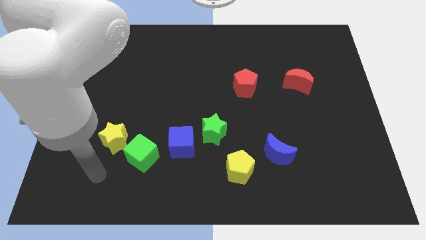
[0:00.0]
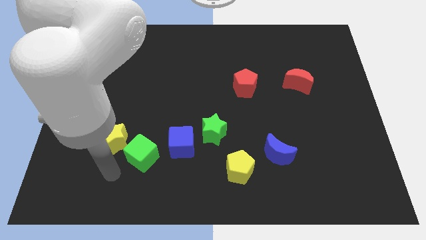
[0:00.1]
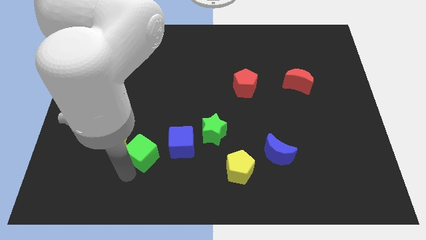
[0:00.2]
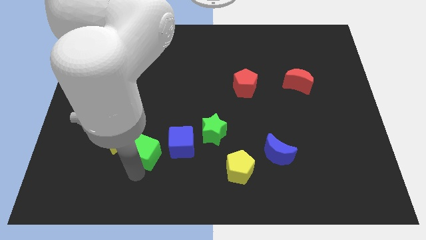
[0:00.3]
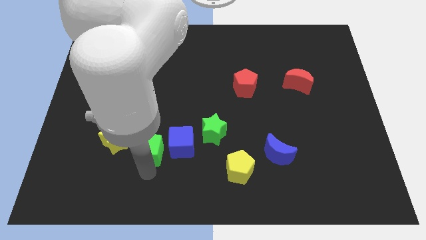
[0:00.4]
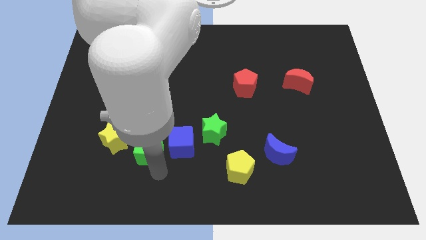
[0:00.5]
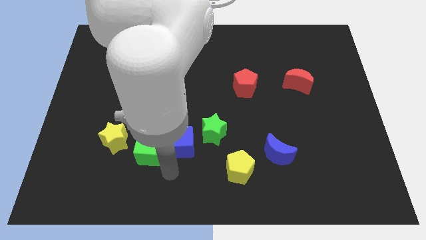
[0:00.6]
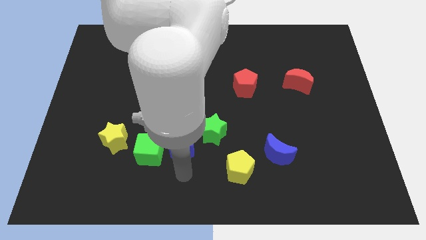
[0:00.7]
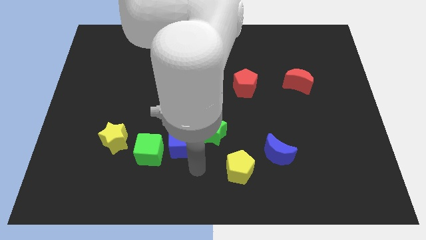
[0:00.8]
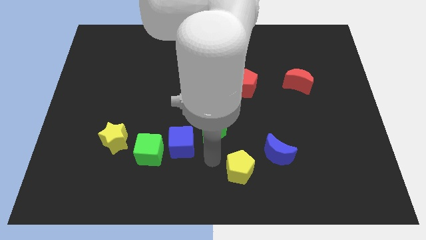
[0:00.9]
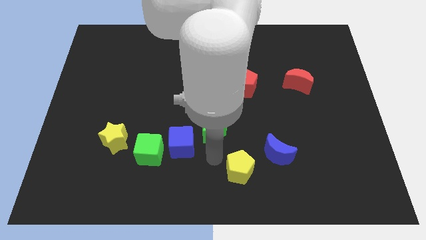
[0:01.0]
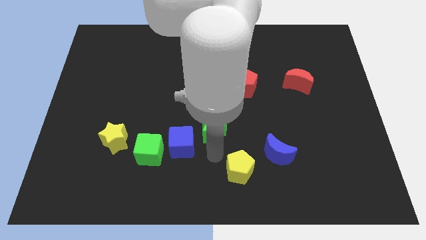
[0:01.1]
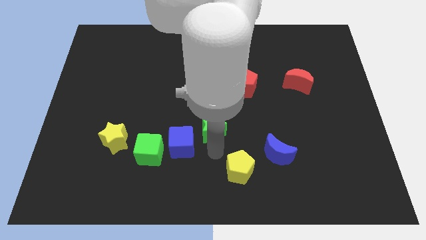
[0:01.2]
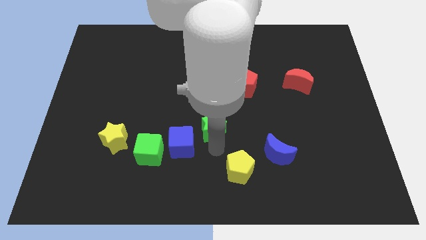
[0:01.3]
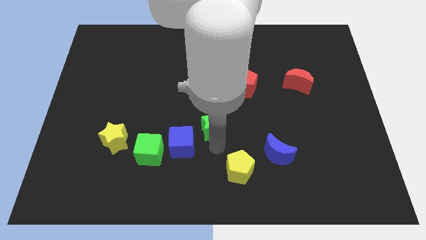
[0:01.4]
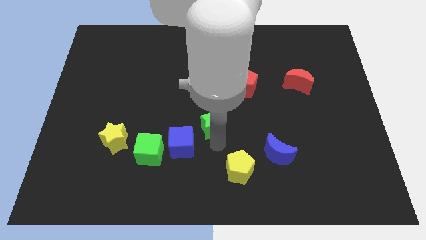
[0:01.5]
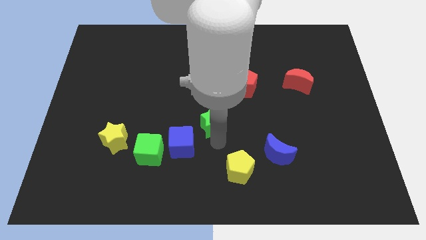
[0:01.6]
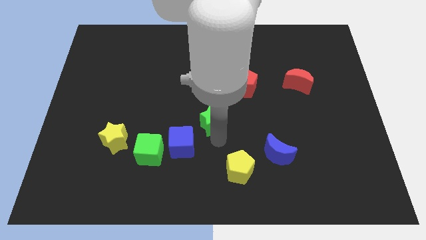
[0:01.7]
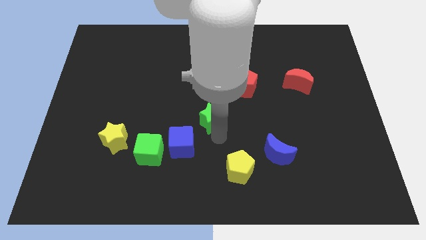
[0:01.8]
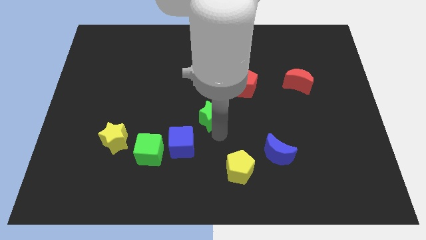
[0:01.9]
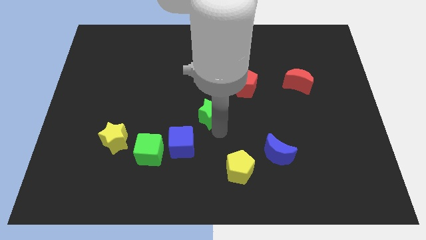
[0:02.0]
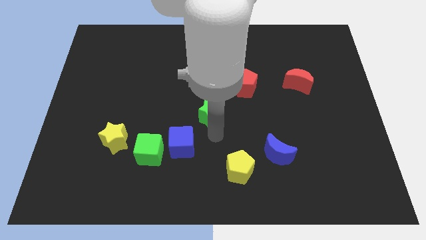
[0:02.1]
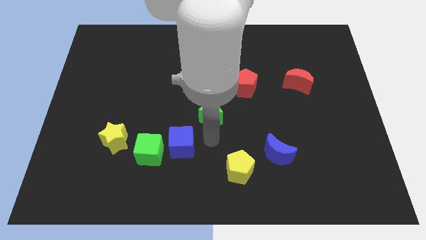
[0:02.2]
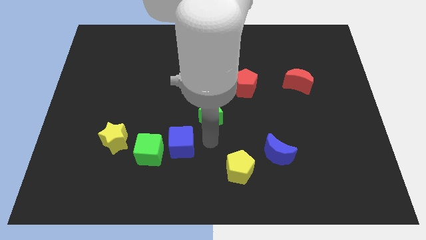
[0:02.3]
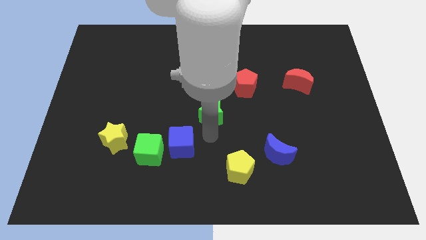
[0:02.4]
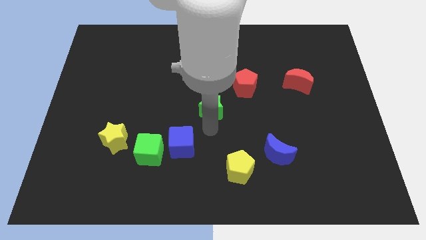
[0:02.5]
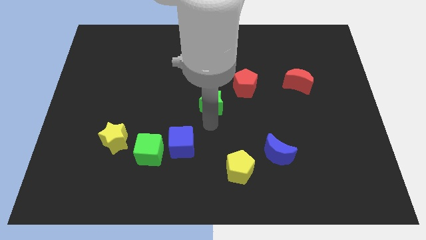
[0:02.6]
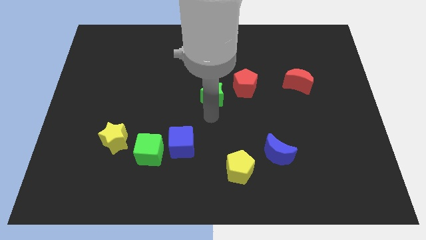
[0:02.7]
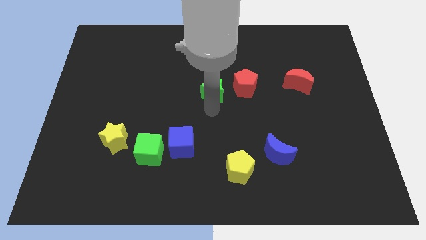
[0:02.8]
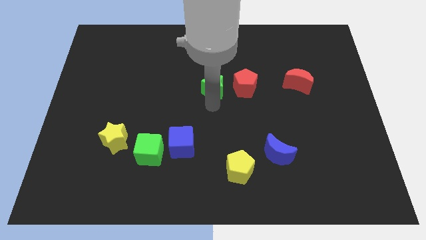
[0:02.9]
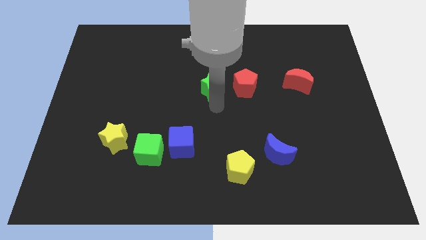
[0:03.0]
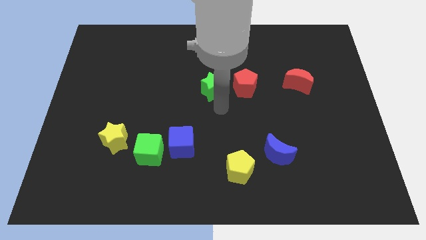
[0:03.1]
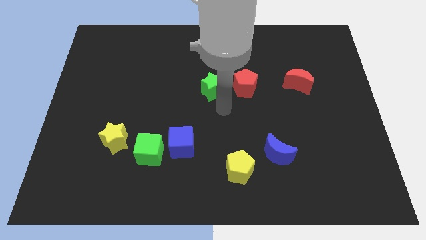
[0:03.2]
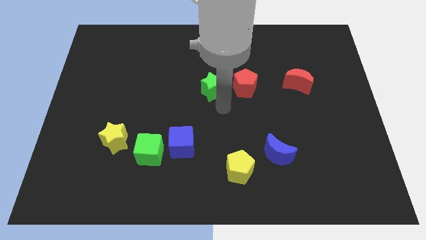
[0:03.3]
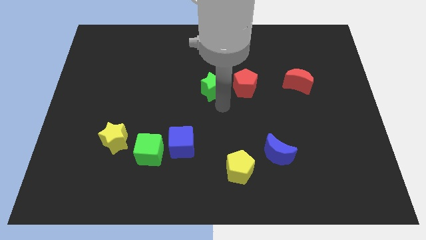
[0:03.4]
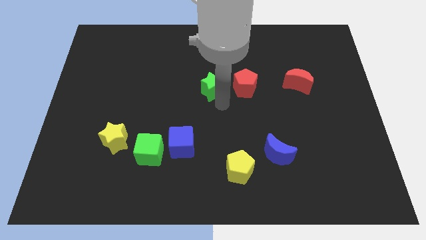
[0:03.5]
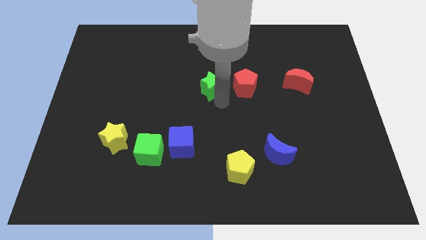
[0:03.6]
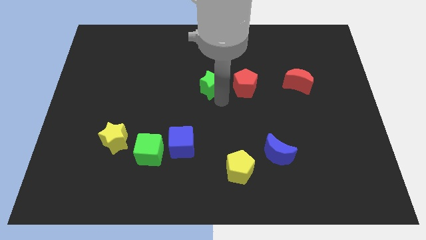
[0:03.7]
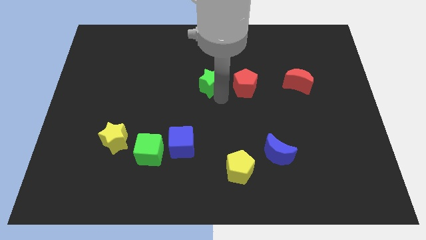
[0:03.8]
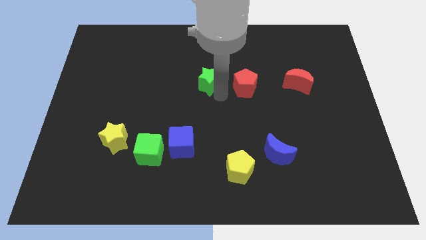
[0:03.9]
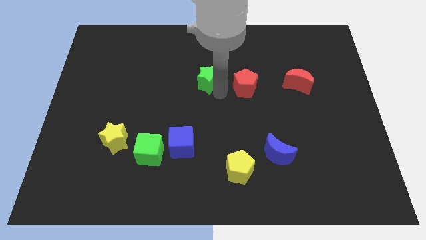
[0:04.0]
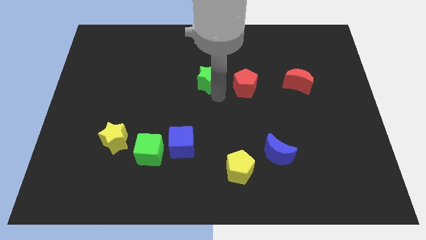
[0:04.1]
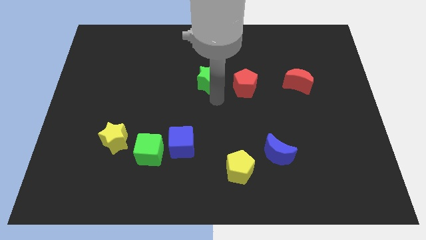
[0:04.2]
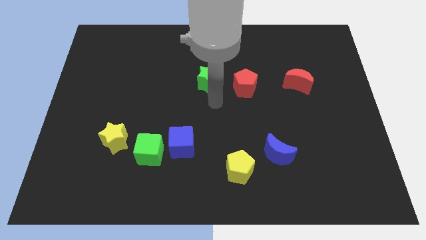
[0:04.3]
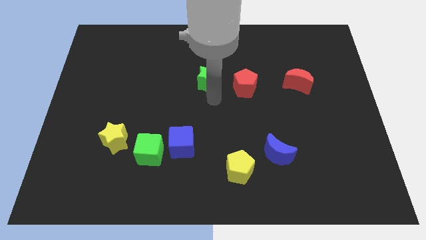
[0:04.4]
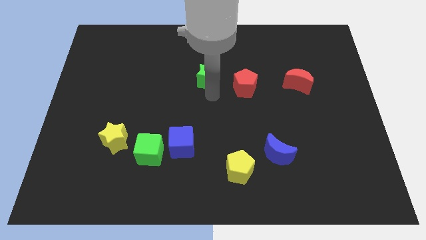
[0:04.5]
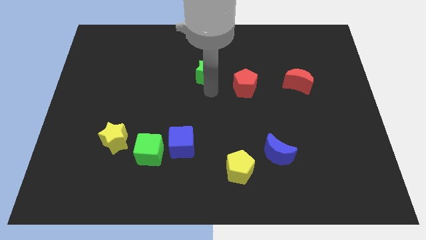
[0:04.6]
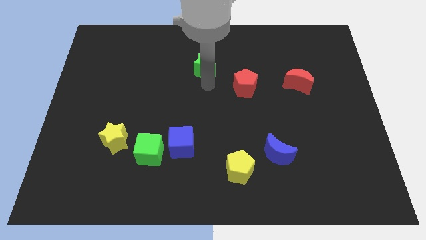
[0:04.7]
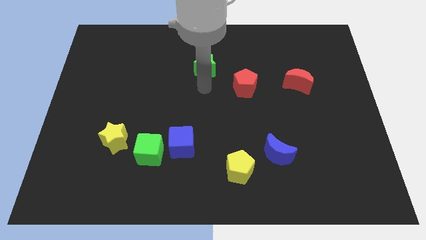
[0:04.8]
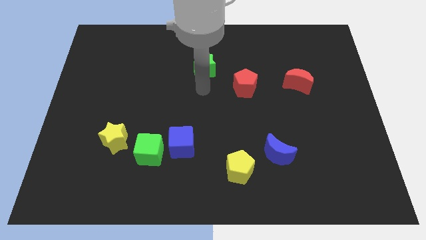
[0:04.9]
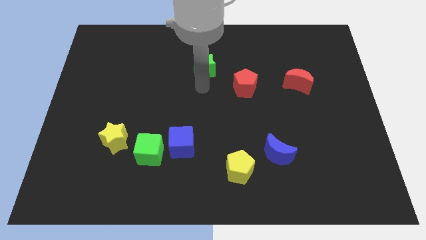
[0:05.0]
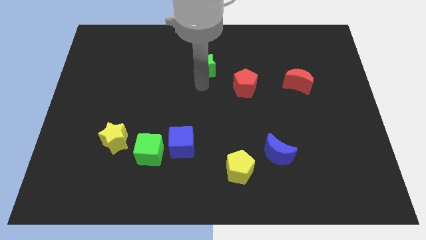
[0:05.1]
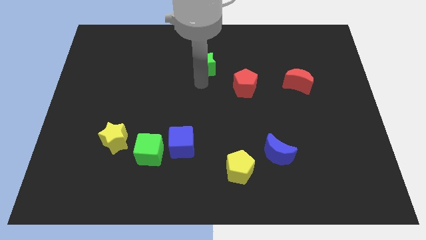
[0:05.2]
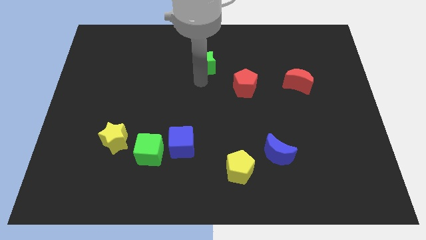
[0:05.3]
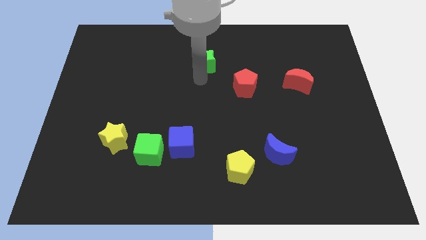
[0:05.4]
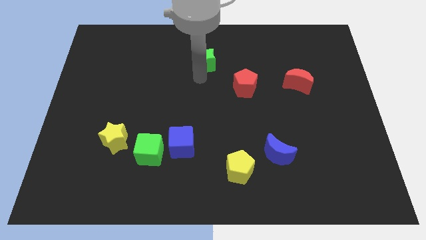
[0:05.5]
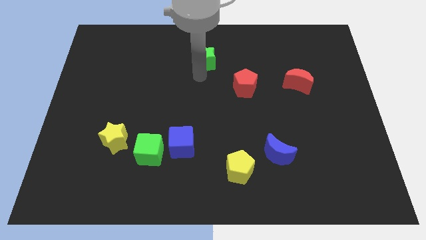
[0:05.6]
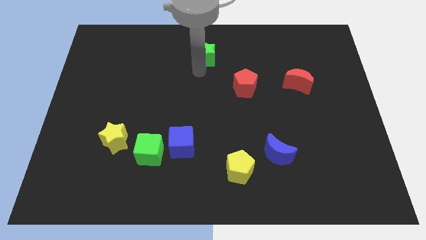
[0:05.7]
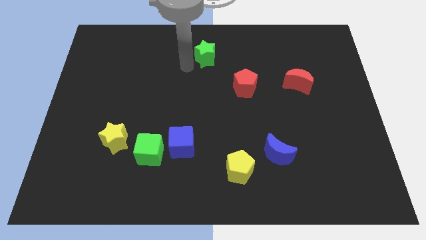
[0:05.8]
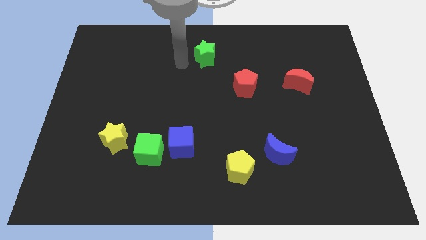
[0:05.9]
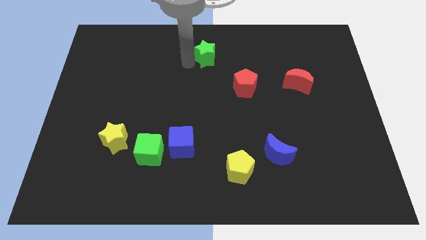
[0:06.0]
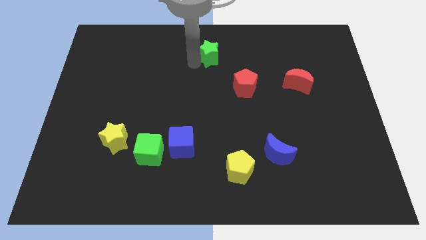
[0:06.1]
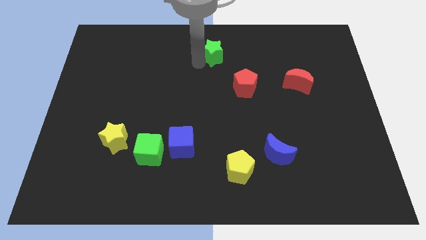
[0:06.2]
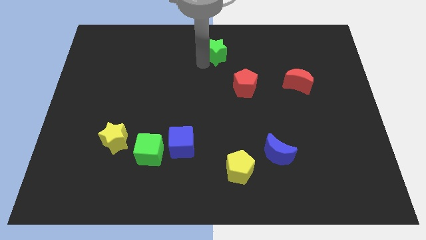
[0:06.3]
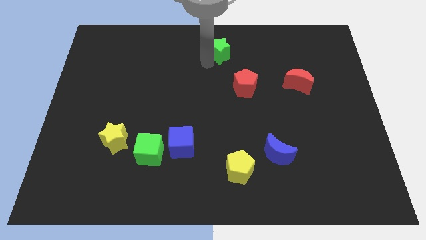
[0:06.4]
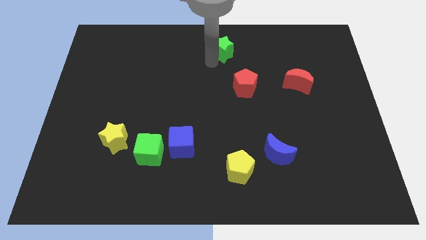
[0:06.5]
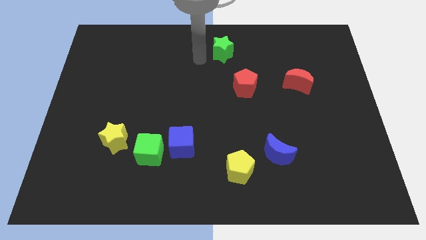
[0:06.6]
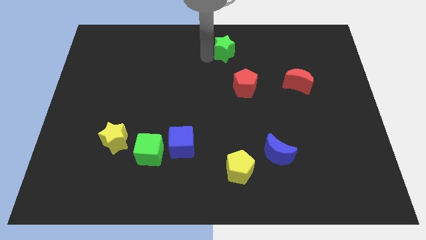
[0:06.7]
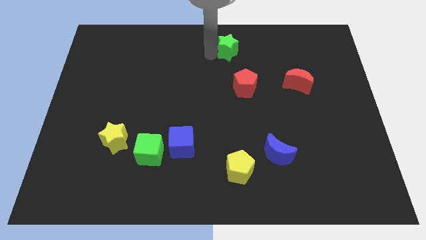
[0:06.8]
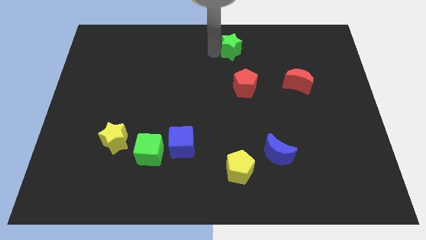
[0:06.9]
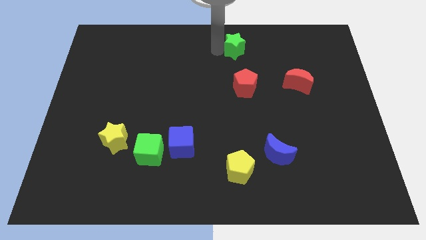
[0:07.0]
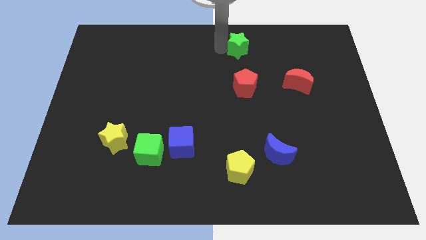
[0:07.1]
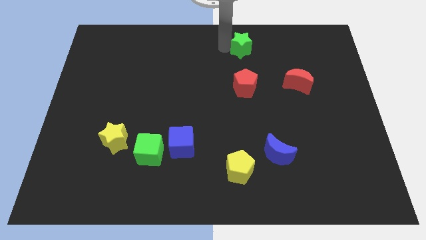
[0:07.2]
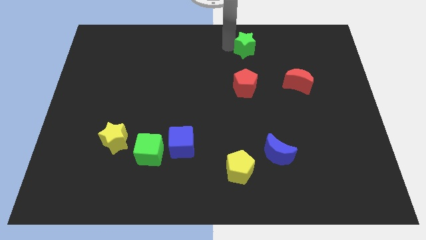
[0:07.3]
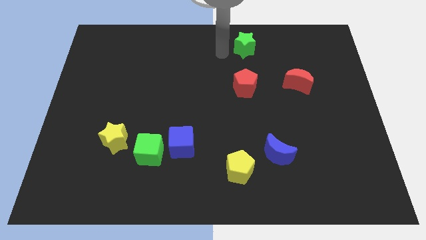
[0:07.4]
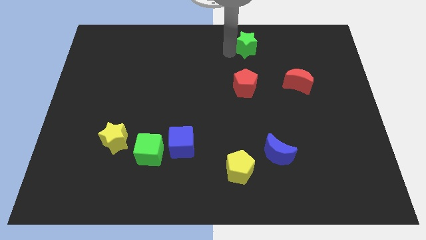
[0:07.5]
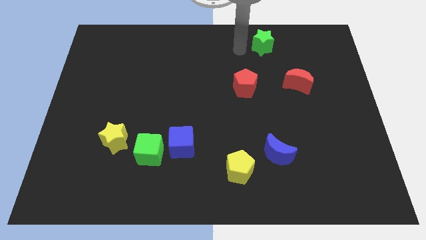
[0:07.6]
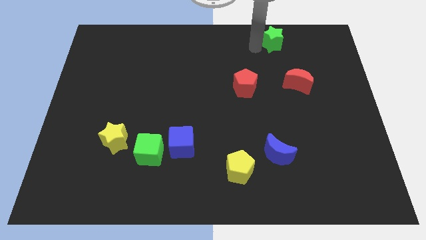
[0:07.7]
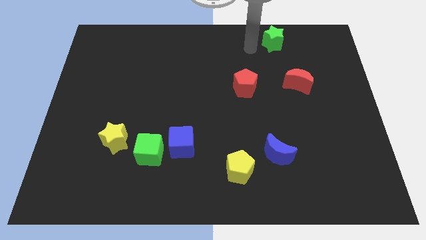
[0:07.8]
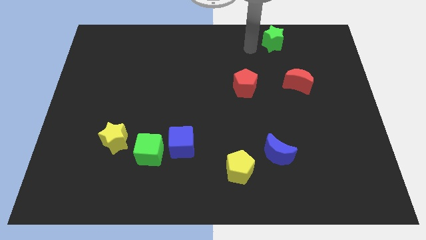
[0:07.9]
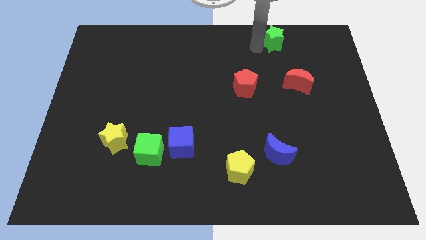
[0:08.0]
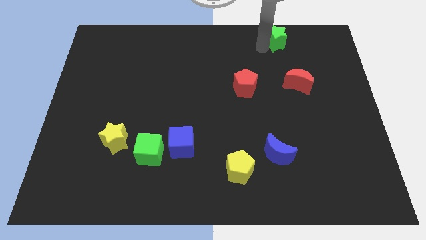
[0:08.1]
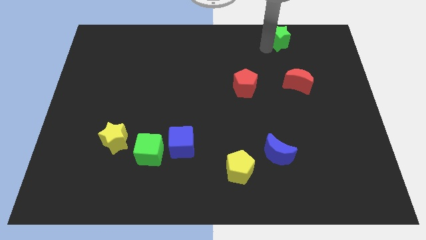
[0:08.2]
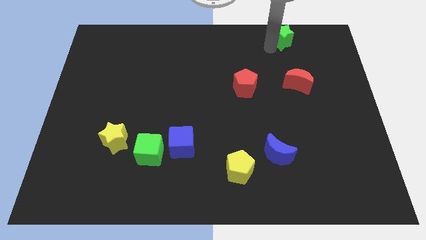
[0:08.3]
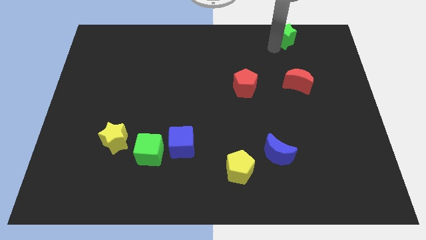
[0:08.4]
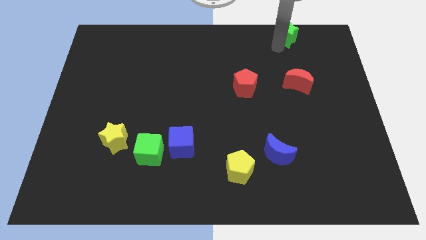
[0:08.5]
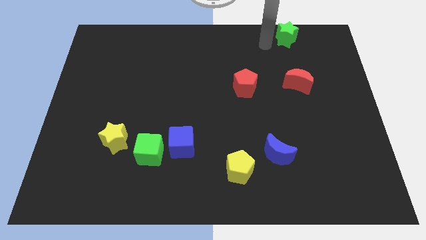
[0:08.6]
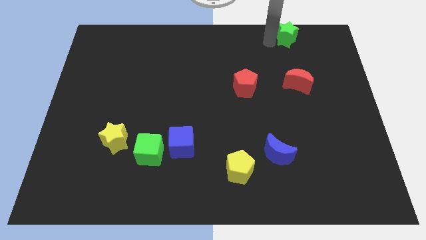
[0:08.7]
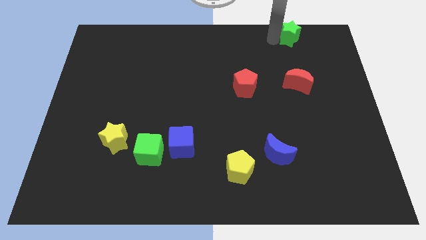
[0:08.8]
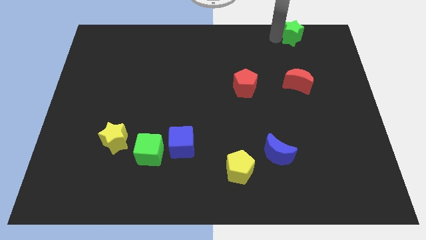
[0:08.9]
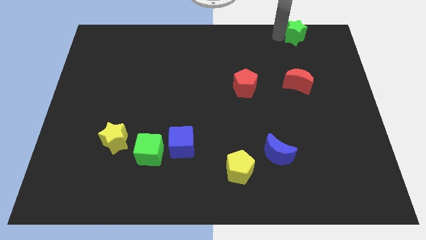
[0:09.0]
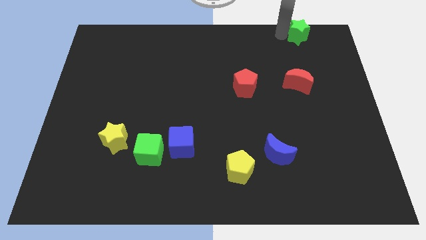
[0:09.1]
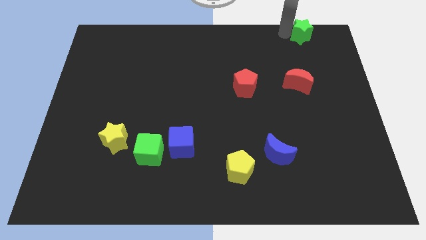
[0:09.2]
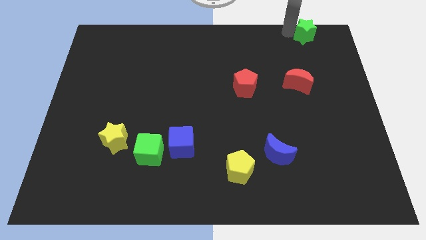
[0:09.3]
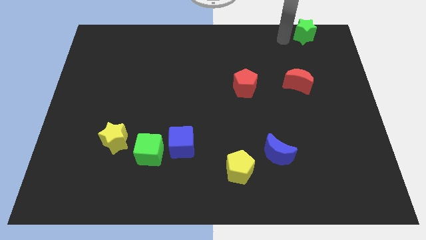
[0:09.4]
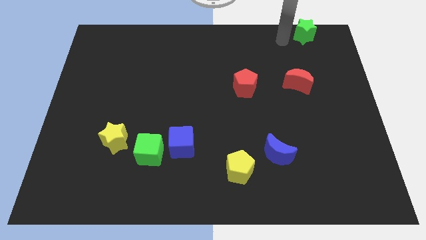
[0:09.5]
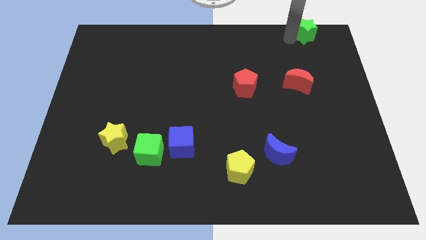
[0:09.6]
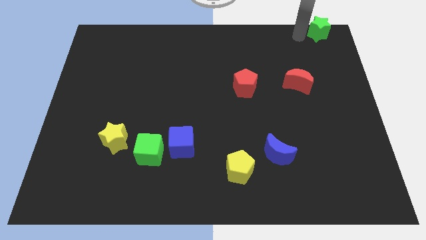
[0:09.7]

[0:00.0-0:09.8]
push the green star to the top right
